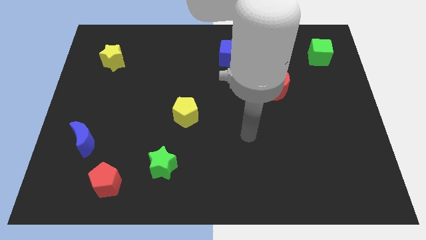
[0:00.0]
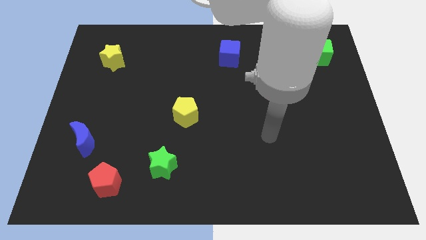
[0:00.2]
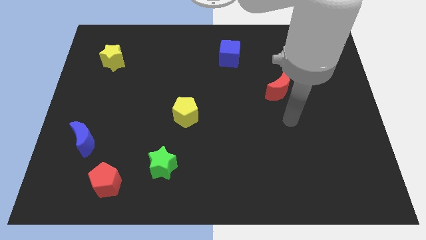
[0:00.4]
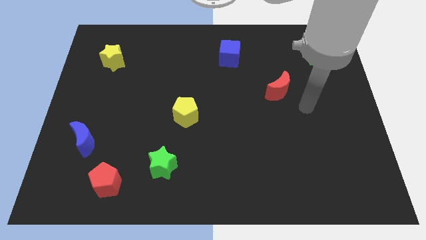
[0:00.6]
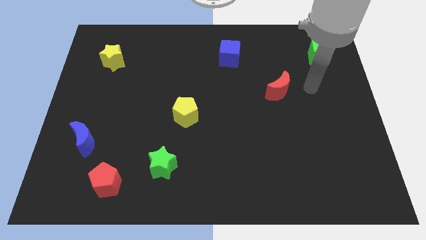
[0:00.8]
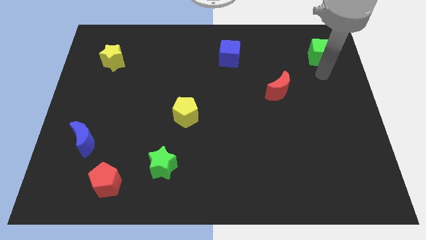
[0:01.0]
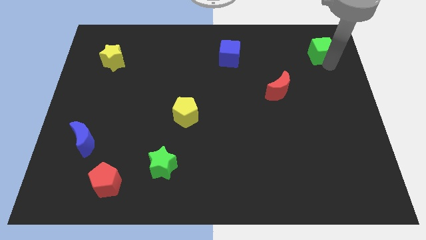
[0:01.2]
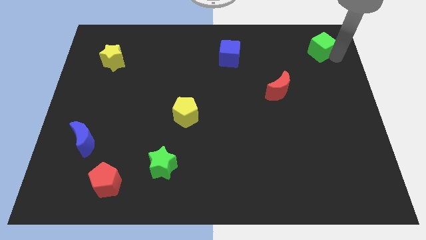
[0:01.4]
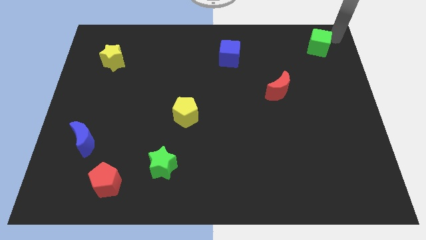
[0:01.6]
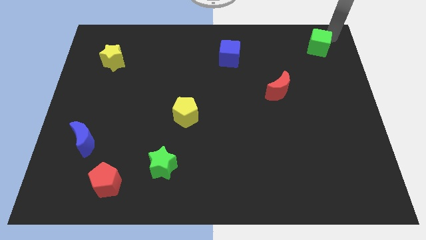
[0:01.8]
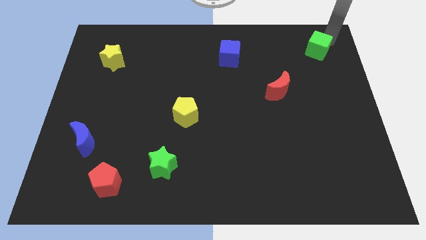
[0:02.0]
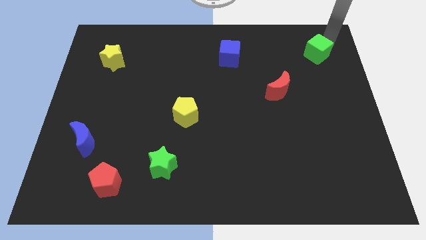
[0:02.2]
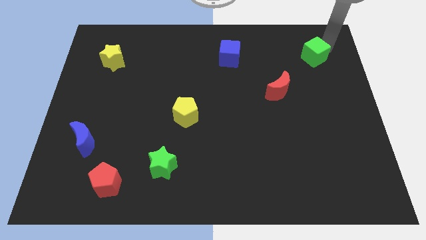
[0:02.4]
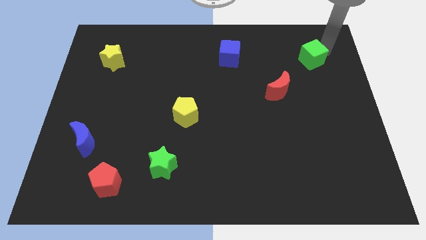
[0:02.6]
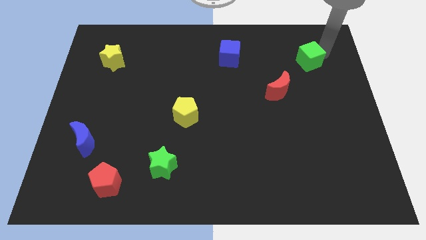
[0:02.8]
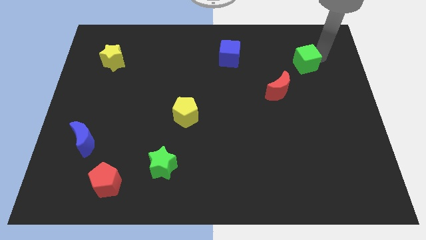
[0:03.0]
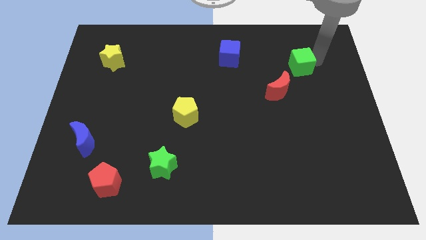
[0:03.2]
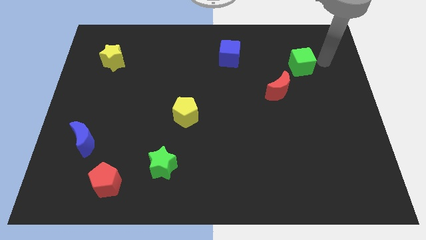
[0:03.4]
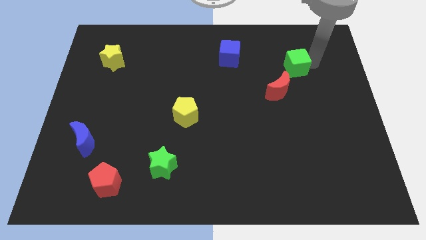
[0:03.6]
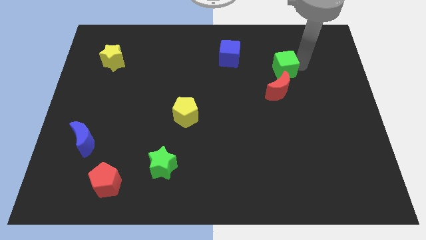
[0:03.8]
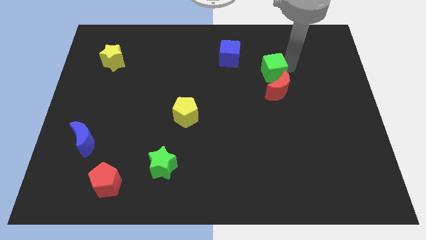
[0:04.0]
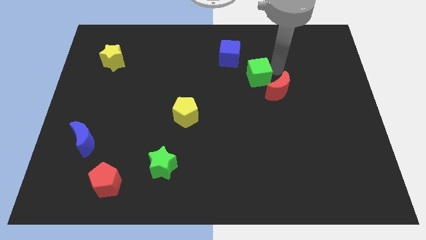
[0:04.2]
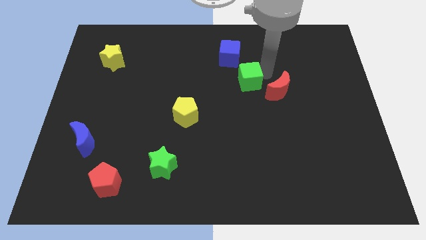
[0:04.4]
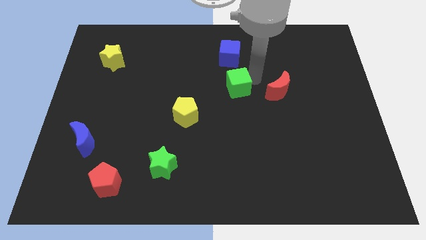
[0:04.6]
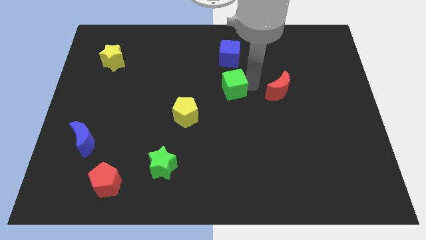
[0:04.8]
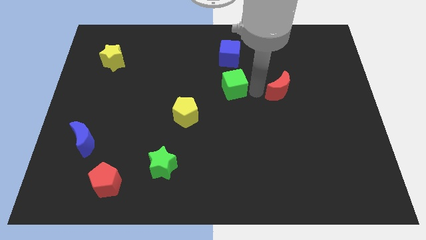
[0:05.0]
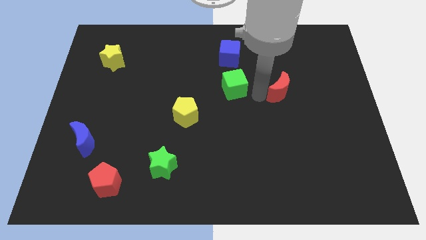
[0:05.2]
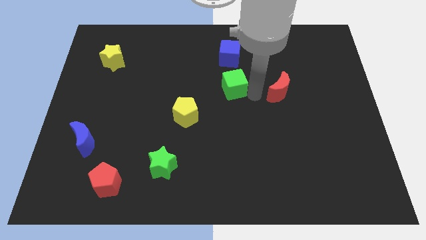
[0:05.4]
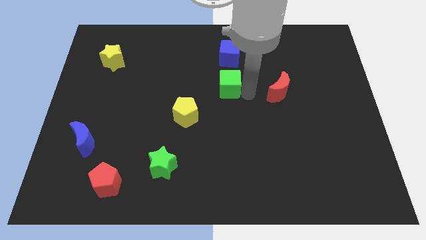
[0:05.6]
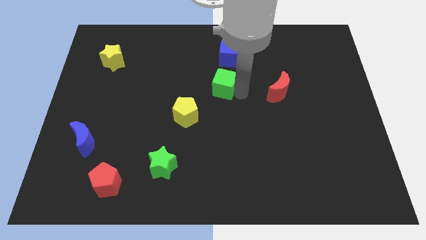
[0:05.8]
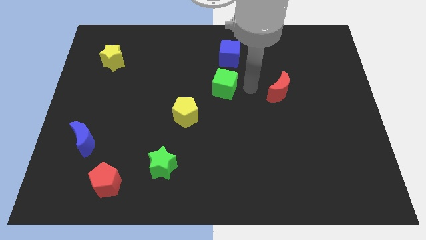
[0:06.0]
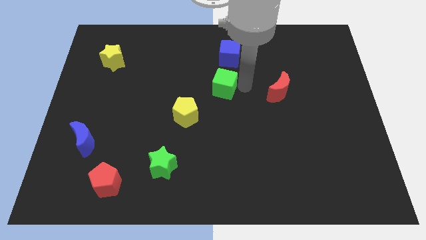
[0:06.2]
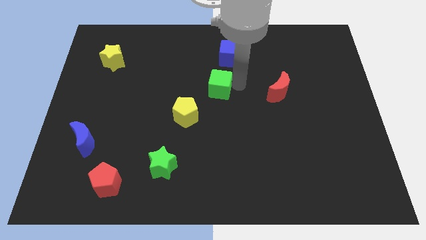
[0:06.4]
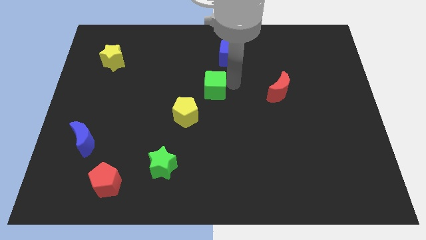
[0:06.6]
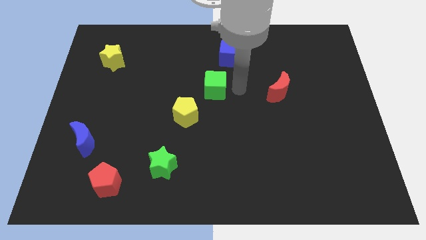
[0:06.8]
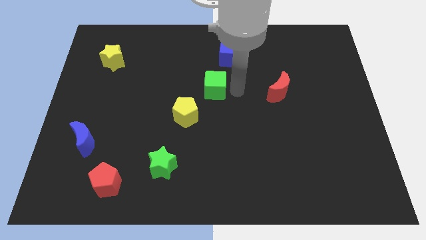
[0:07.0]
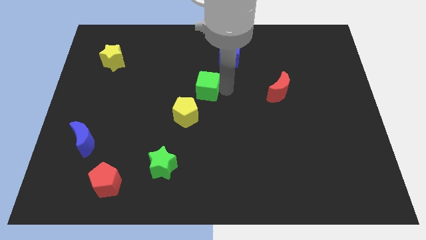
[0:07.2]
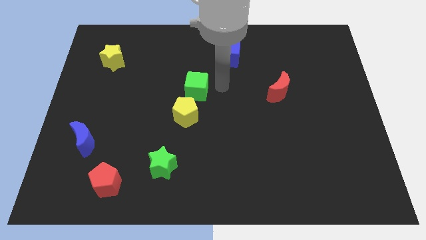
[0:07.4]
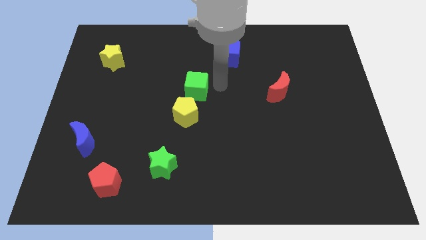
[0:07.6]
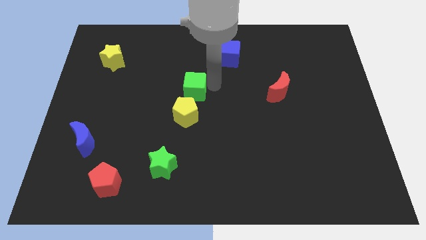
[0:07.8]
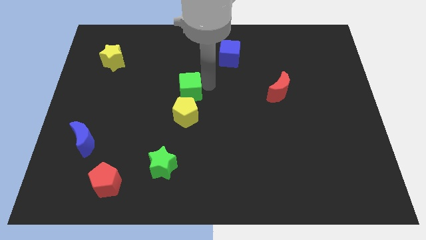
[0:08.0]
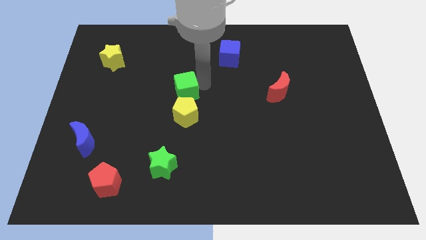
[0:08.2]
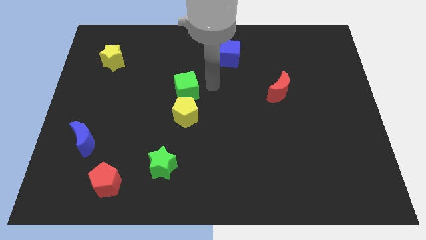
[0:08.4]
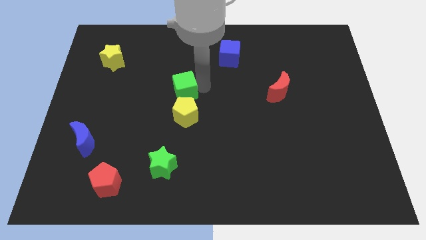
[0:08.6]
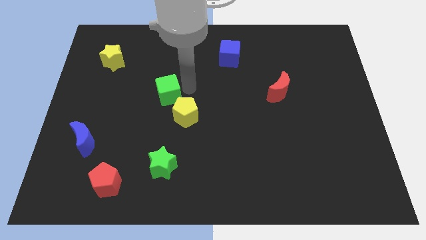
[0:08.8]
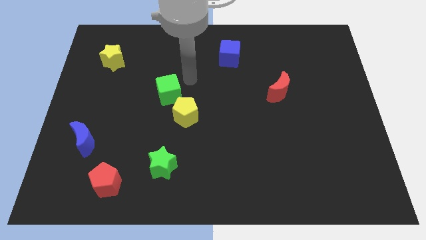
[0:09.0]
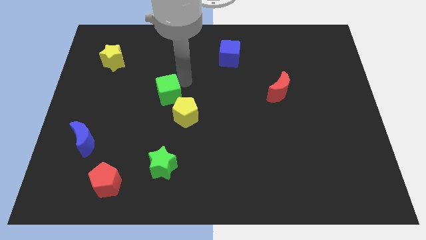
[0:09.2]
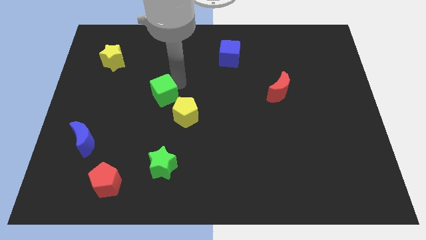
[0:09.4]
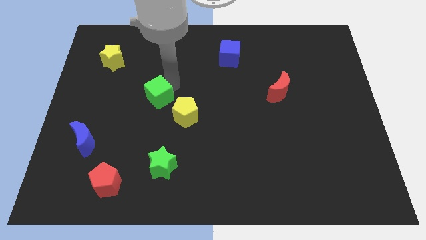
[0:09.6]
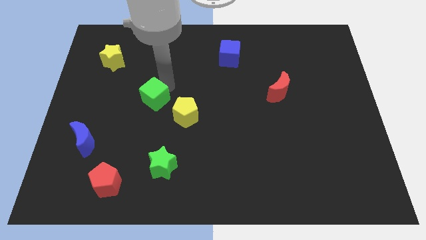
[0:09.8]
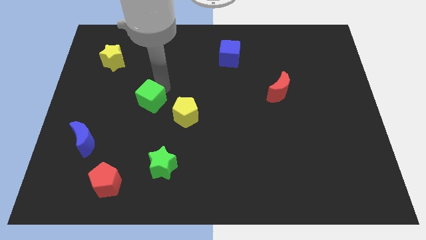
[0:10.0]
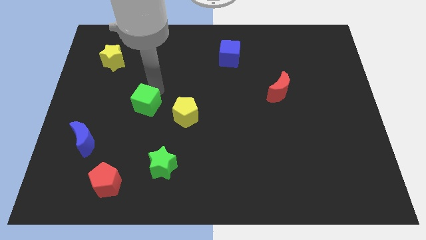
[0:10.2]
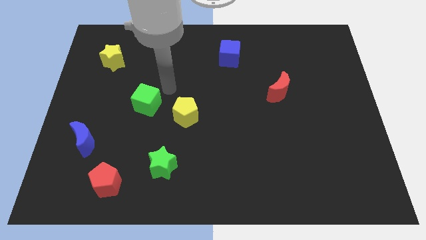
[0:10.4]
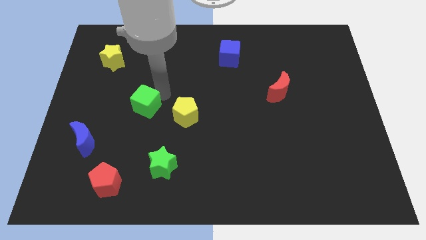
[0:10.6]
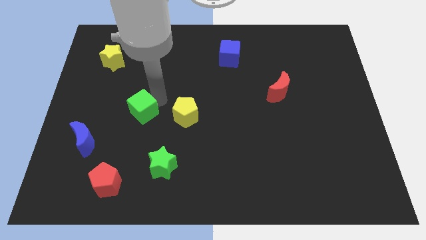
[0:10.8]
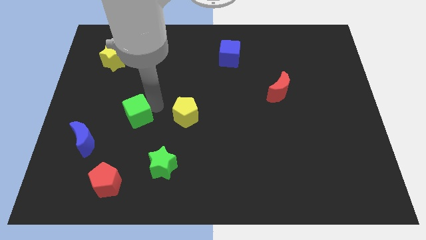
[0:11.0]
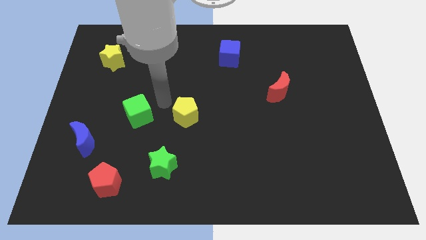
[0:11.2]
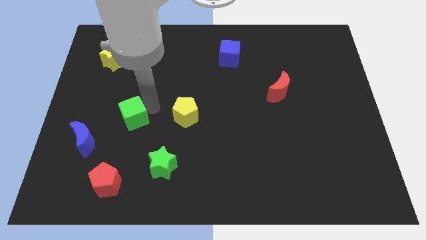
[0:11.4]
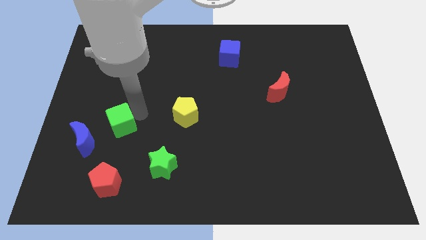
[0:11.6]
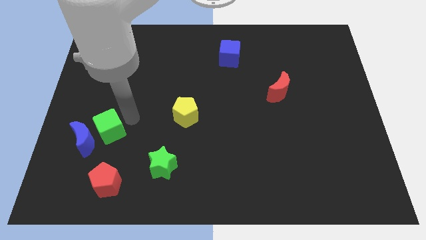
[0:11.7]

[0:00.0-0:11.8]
move the green cube next to the blue moon

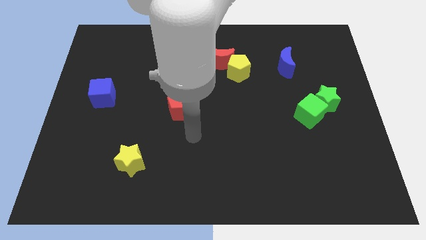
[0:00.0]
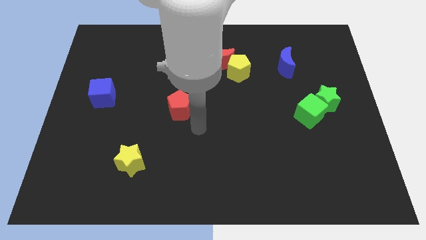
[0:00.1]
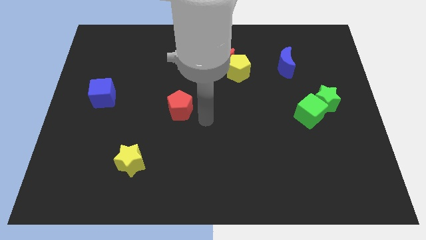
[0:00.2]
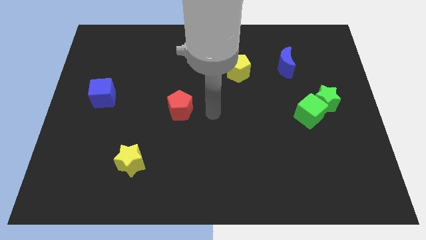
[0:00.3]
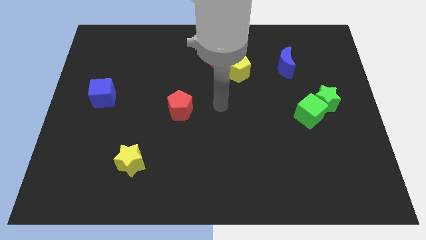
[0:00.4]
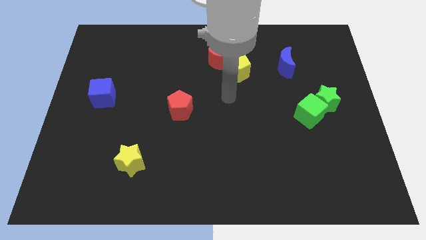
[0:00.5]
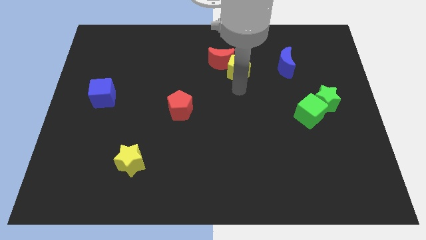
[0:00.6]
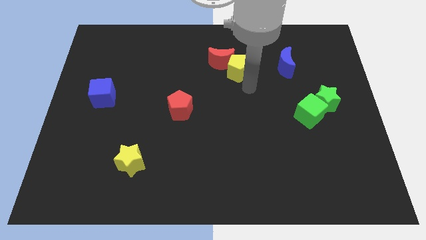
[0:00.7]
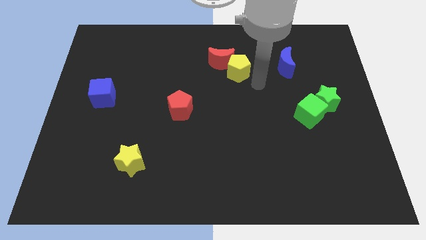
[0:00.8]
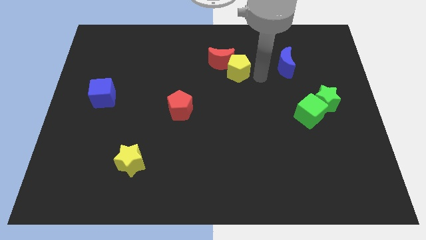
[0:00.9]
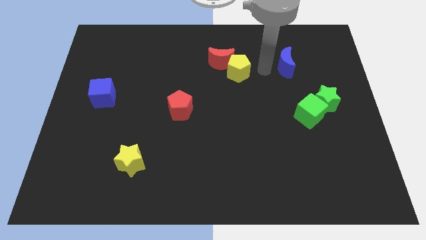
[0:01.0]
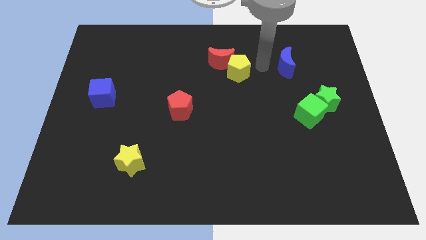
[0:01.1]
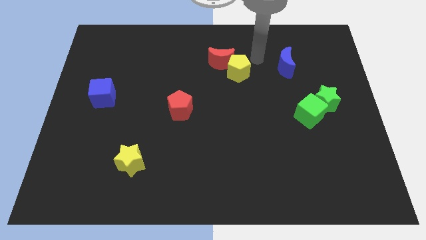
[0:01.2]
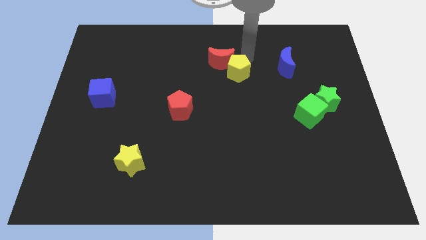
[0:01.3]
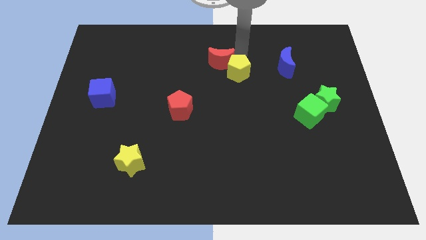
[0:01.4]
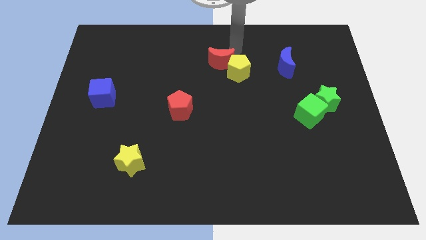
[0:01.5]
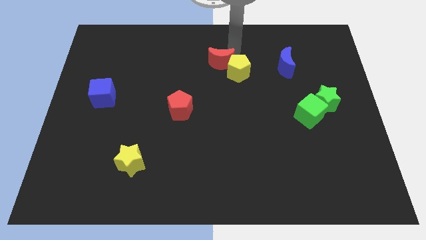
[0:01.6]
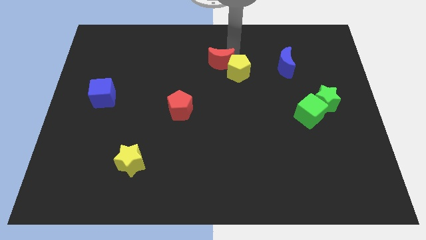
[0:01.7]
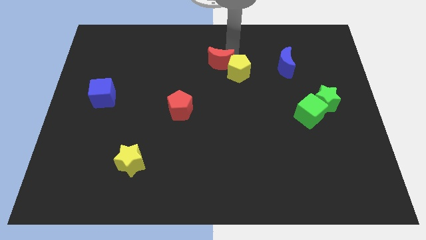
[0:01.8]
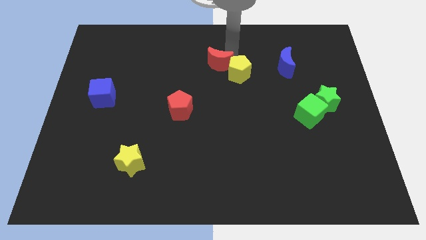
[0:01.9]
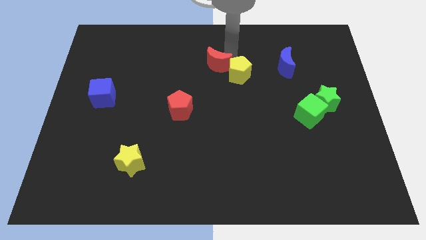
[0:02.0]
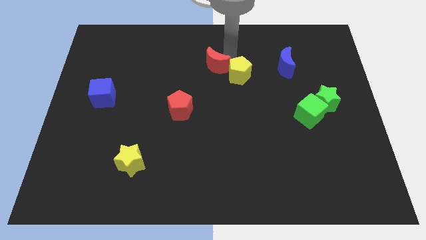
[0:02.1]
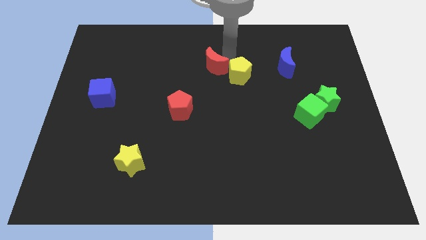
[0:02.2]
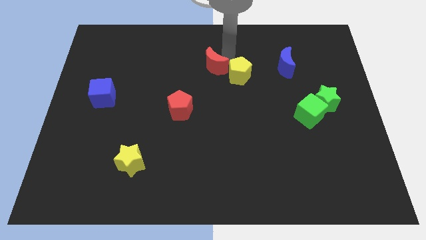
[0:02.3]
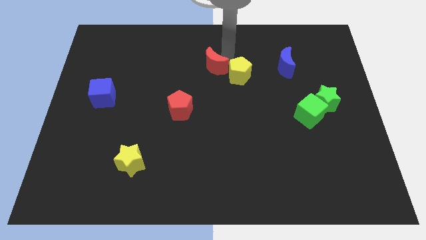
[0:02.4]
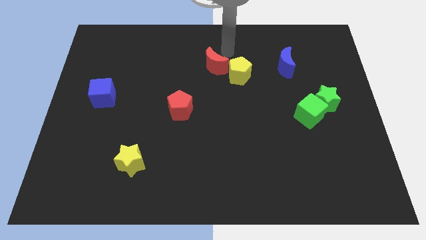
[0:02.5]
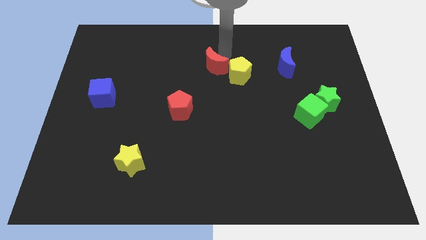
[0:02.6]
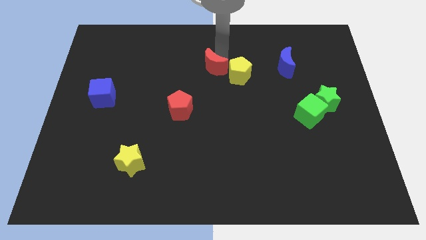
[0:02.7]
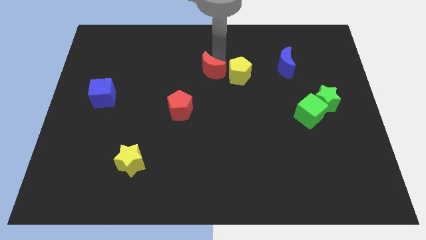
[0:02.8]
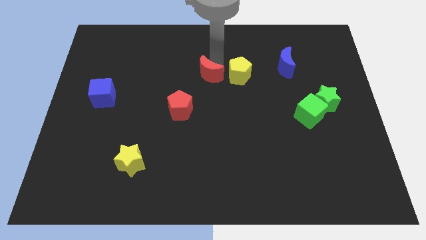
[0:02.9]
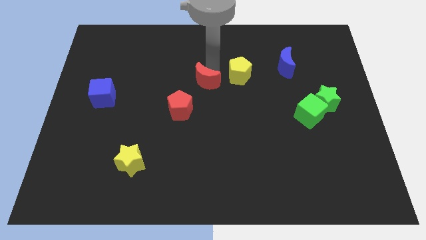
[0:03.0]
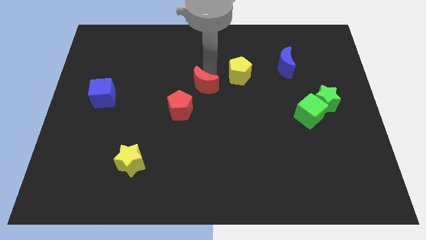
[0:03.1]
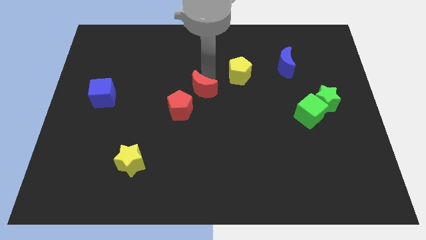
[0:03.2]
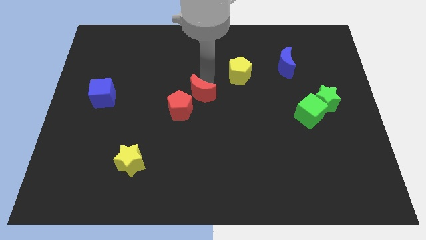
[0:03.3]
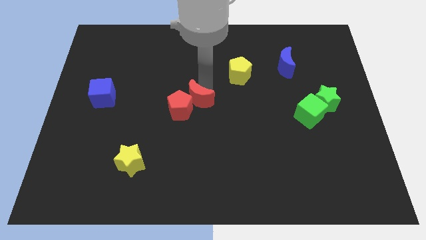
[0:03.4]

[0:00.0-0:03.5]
move the red moon close to the red pentagon
